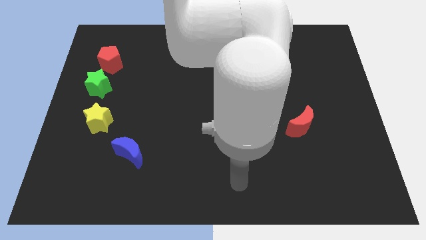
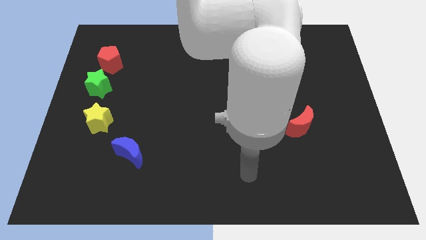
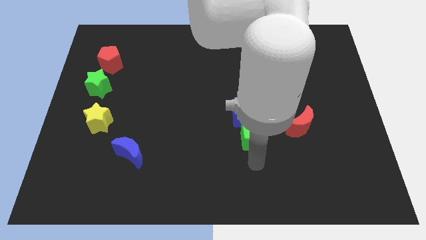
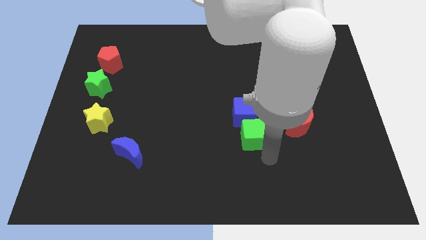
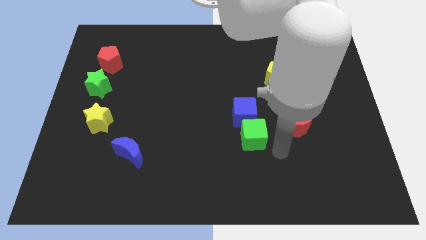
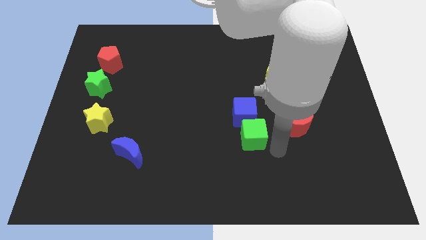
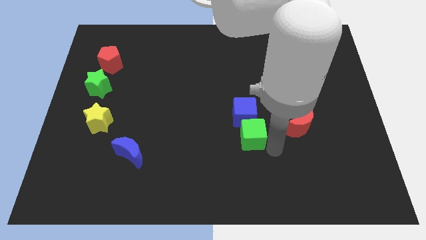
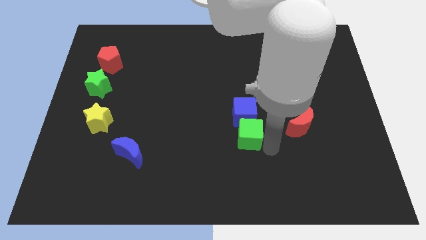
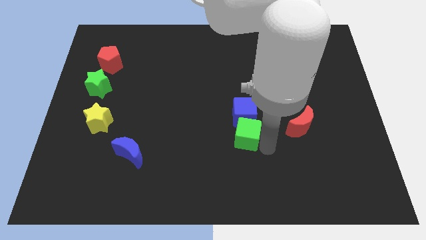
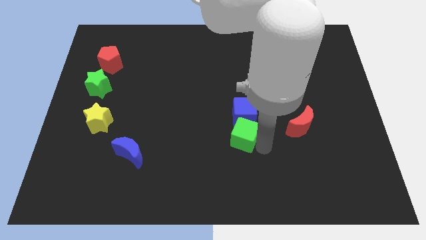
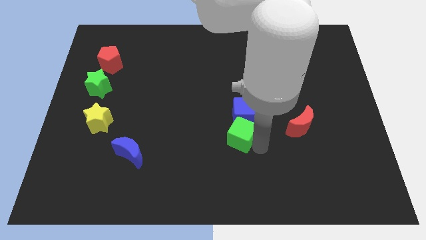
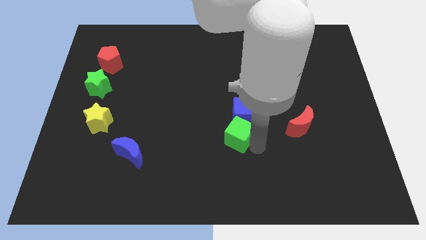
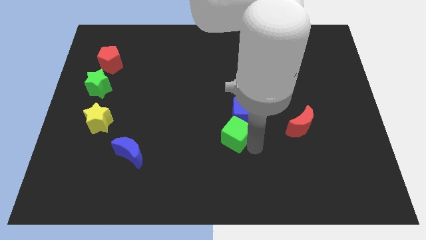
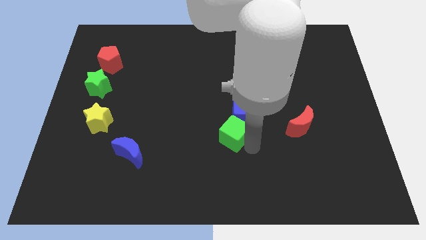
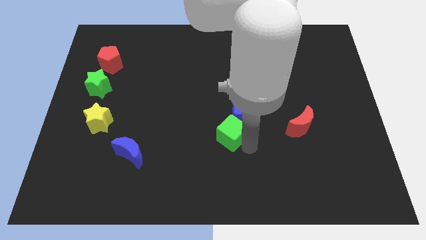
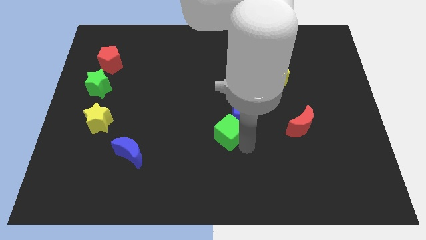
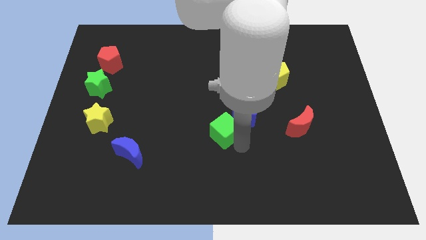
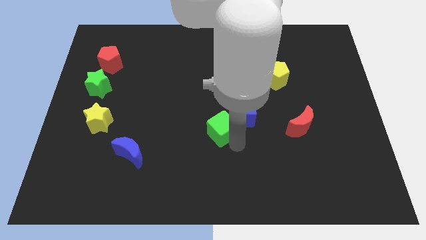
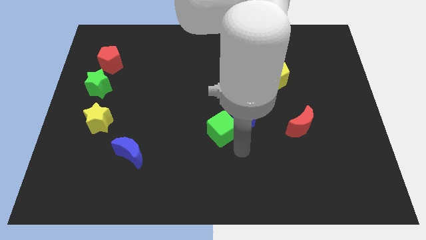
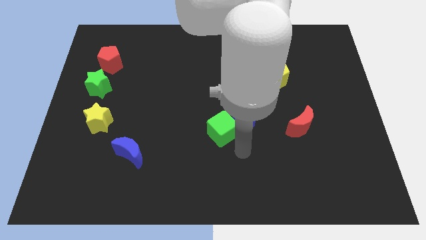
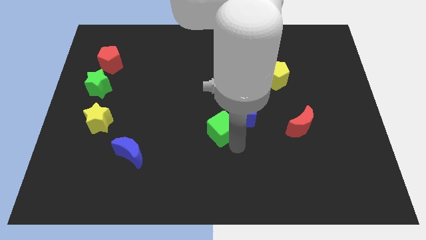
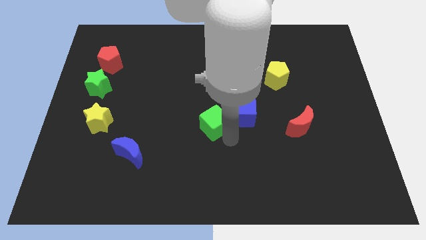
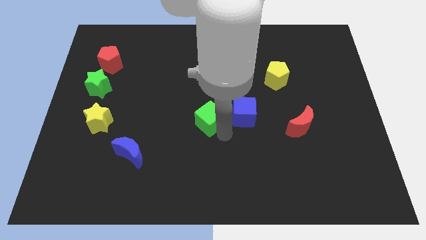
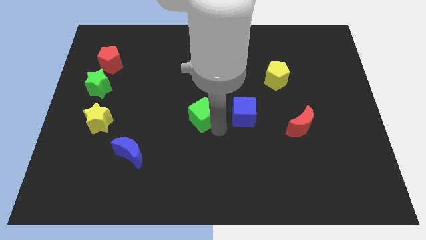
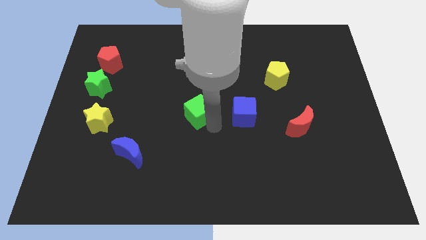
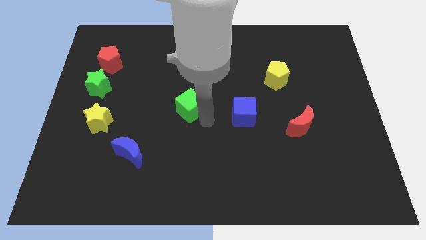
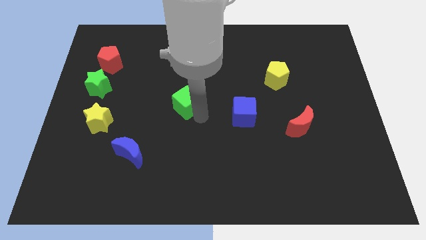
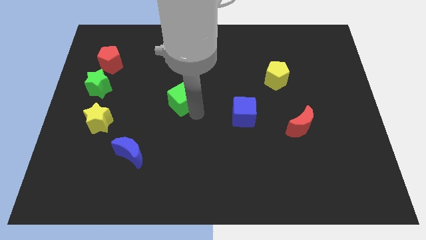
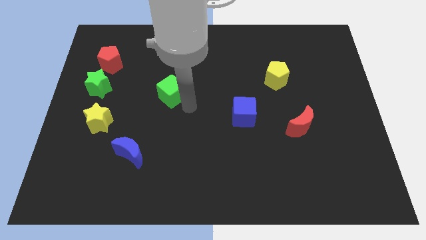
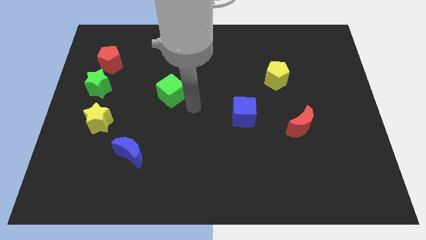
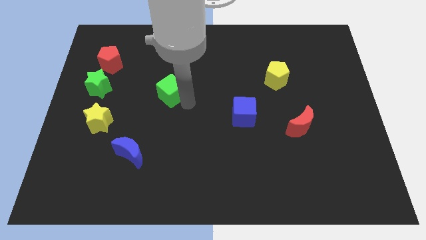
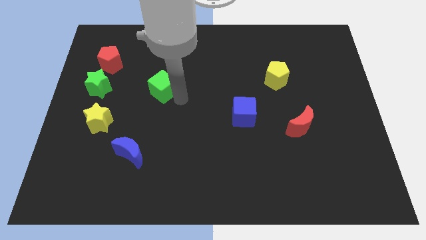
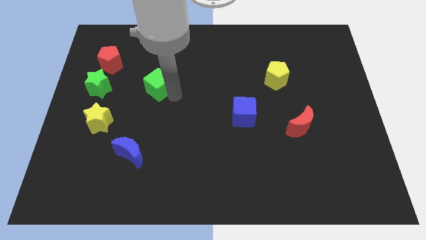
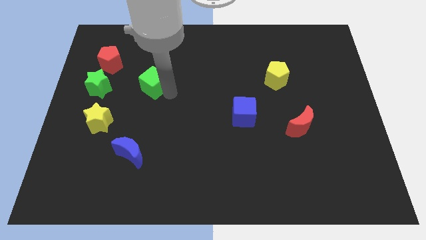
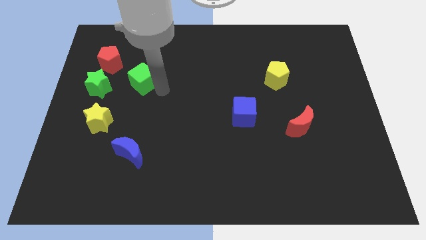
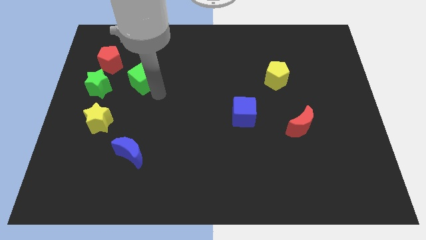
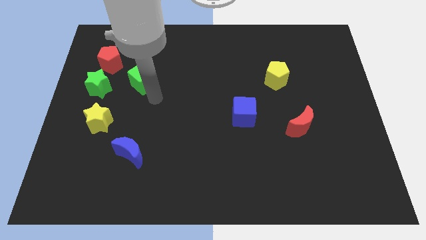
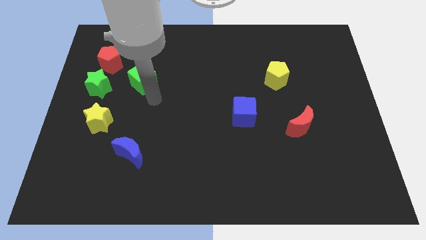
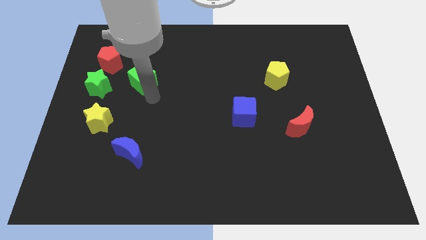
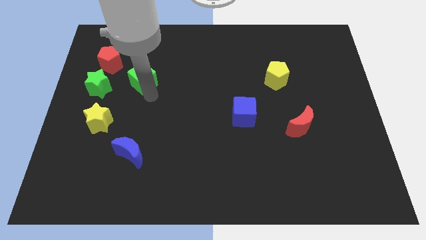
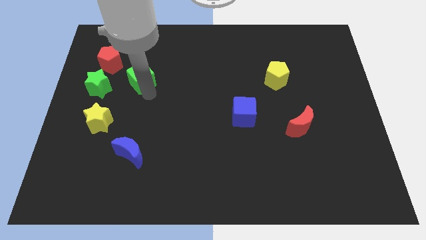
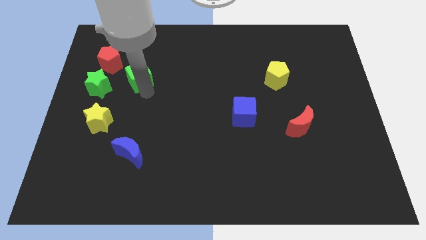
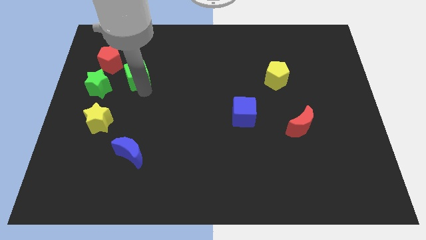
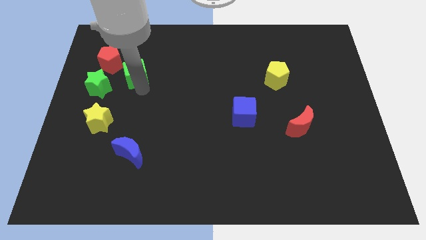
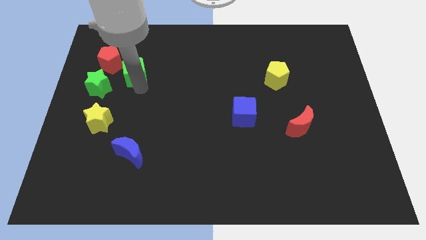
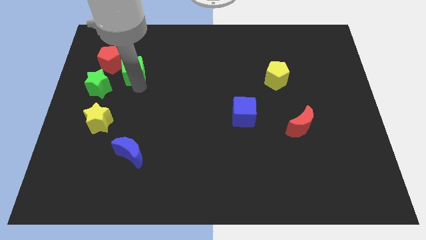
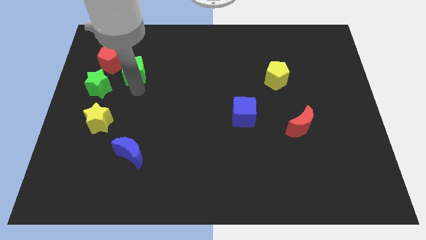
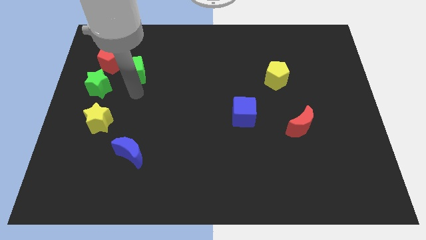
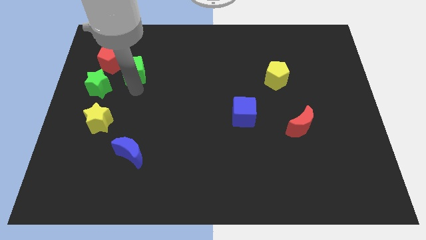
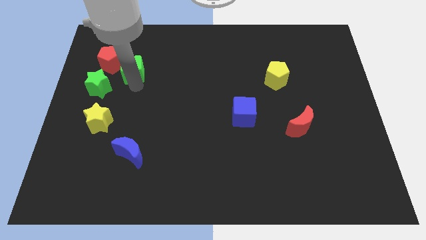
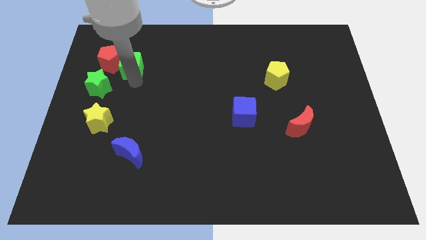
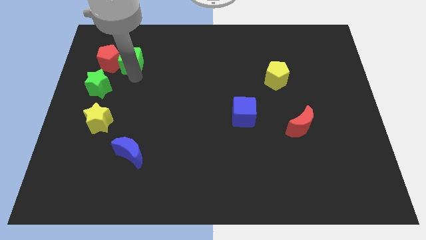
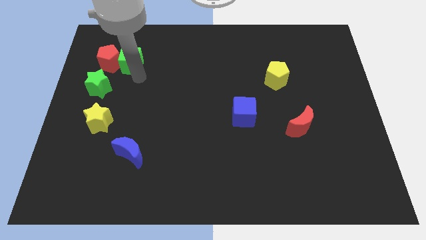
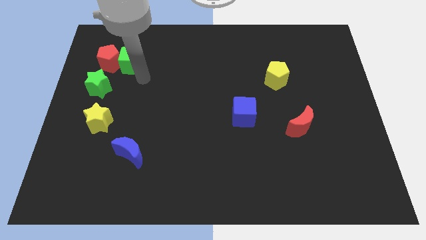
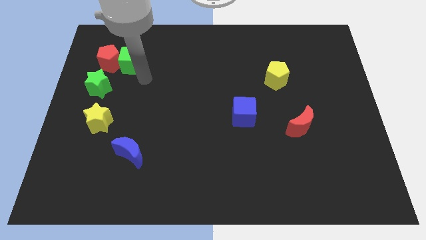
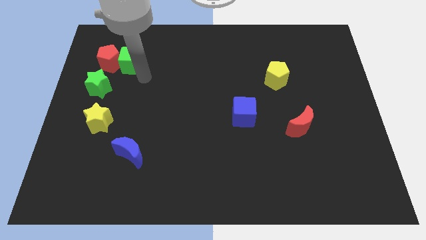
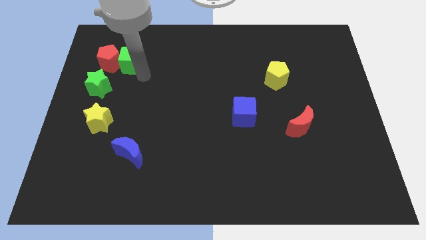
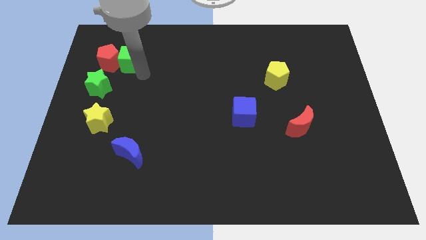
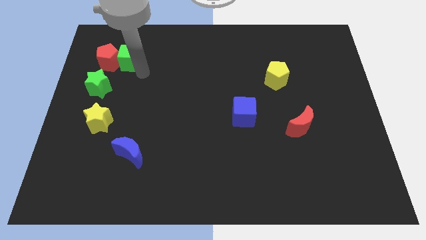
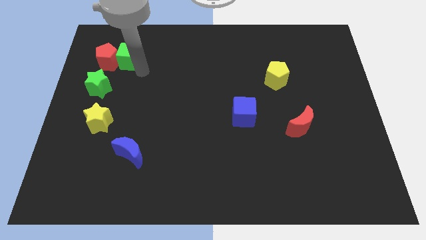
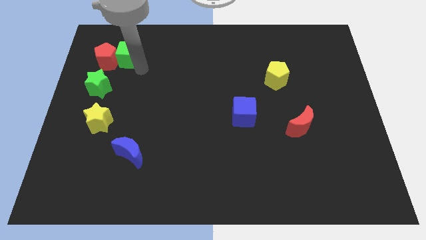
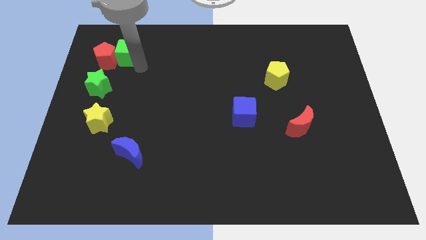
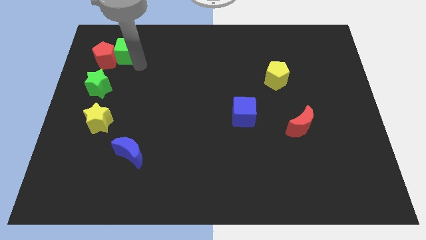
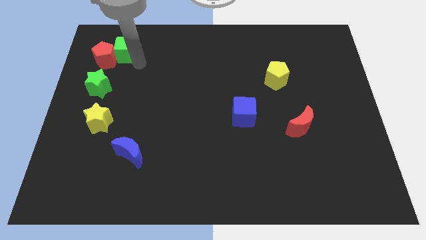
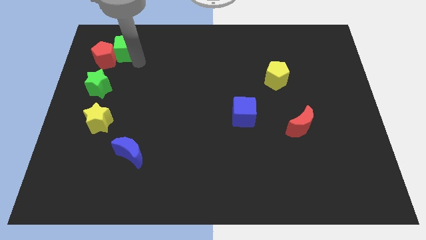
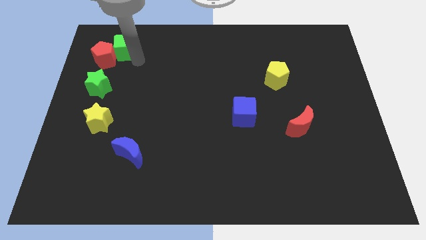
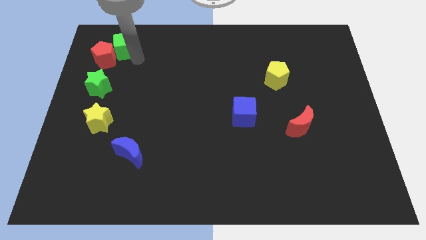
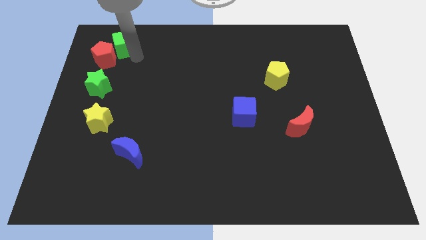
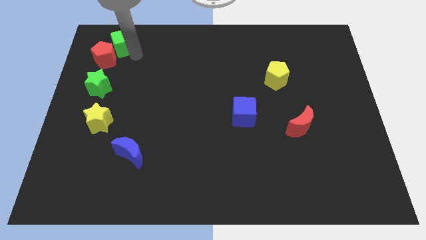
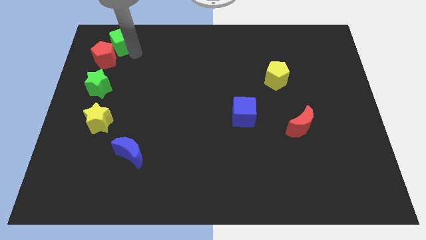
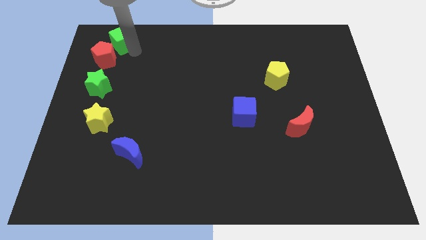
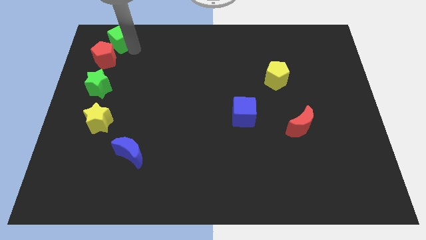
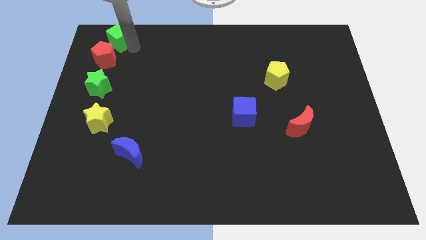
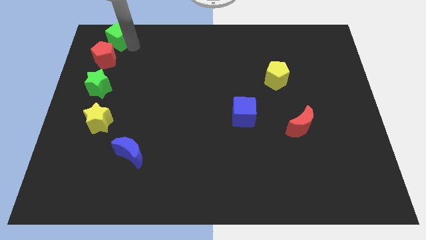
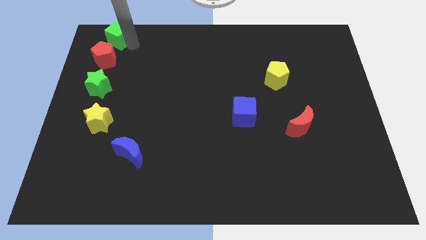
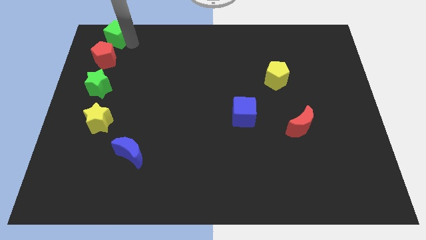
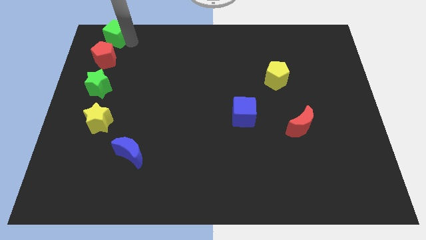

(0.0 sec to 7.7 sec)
put the green cube to the top left
